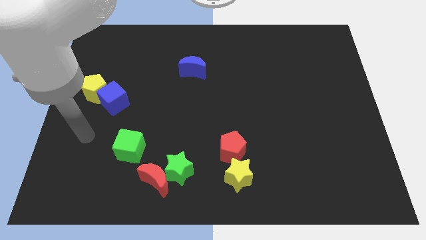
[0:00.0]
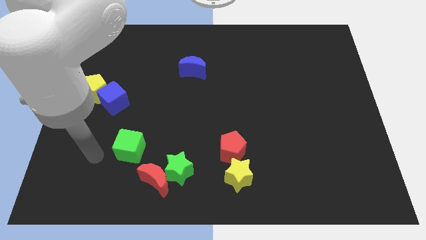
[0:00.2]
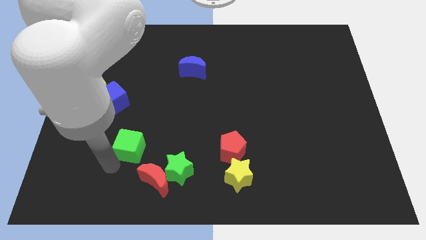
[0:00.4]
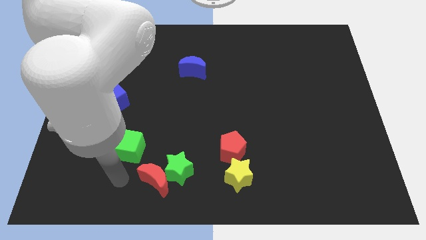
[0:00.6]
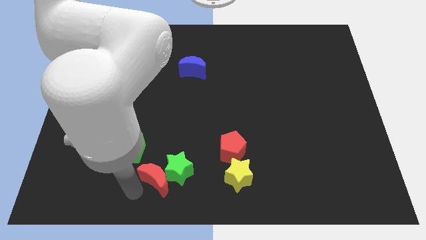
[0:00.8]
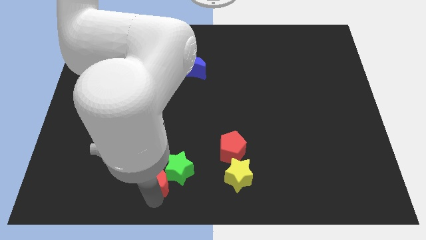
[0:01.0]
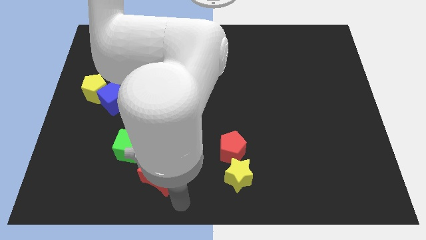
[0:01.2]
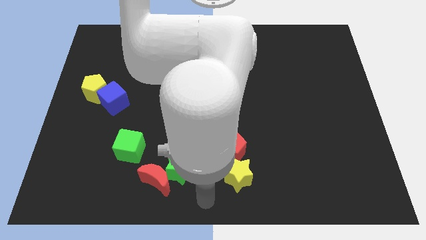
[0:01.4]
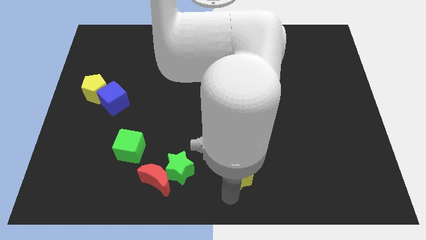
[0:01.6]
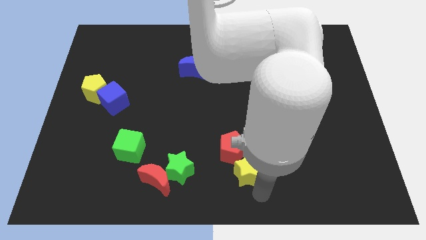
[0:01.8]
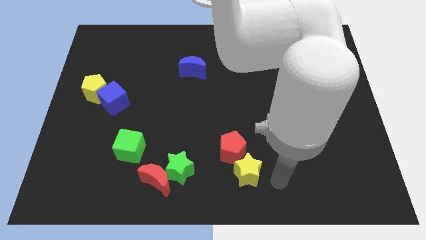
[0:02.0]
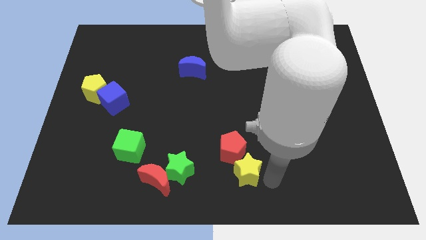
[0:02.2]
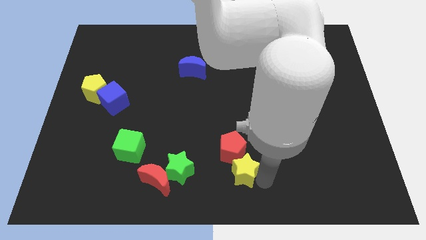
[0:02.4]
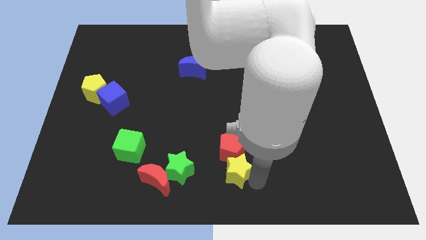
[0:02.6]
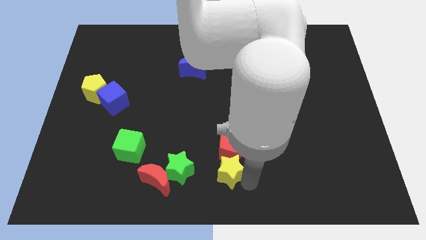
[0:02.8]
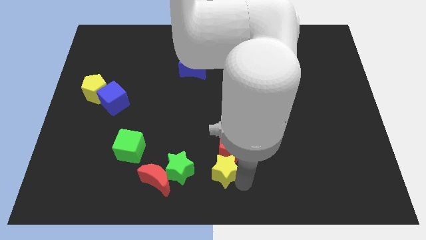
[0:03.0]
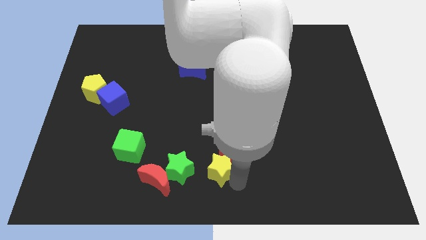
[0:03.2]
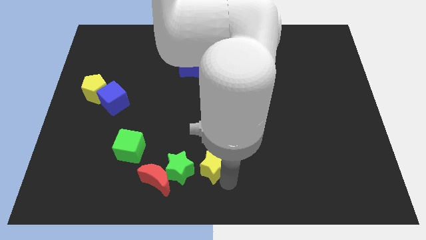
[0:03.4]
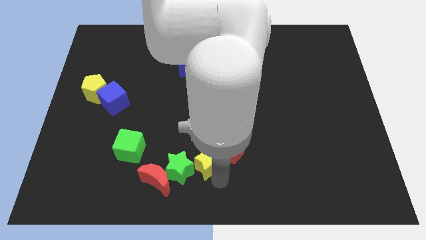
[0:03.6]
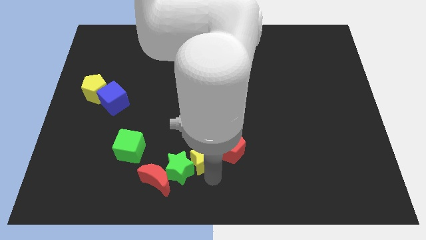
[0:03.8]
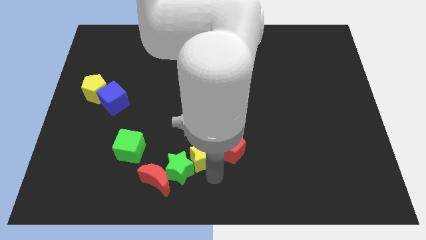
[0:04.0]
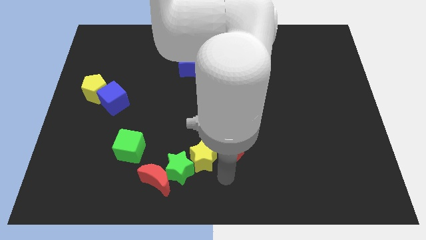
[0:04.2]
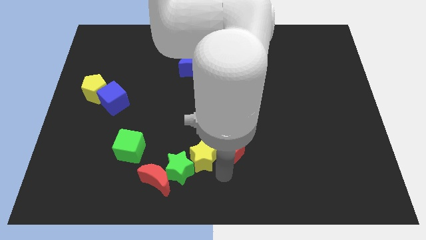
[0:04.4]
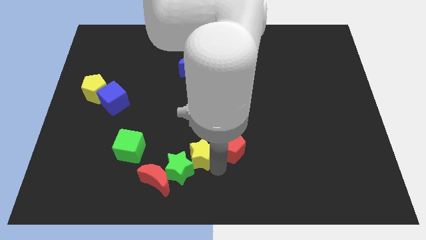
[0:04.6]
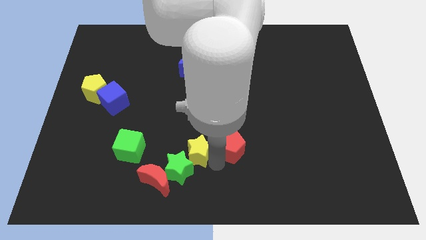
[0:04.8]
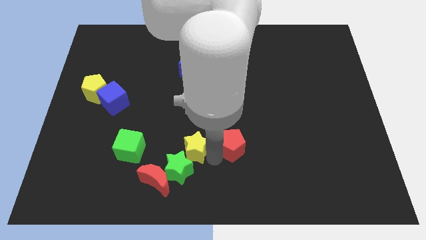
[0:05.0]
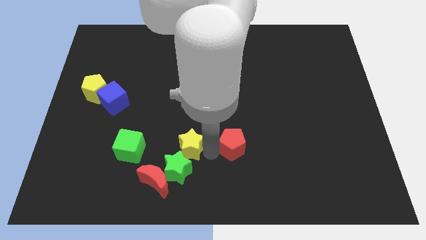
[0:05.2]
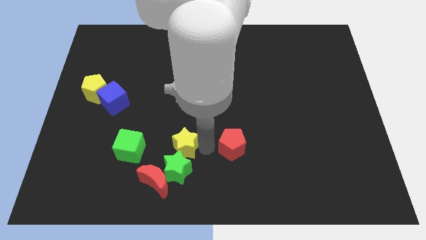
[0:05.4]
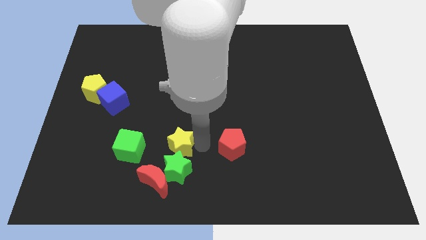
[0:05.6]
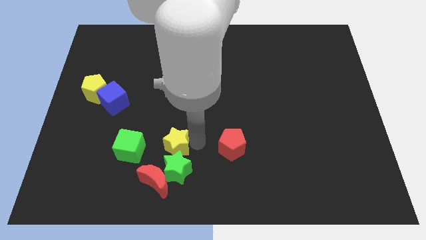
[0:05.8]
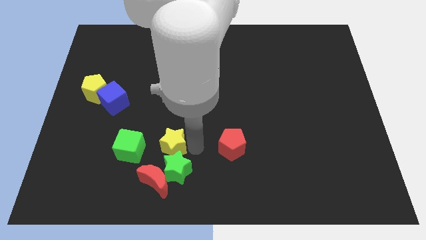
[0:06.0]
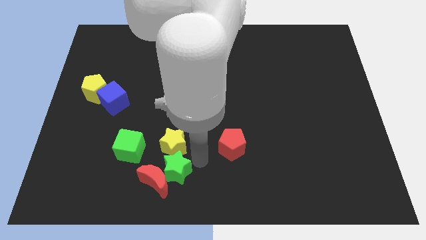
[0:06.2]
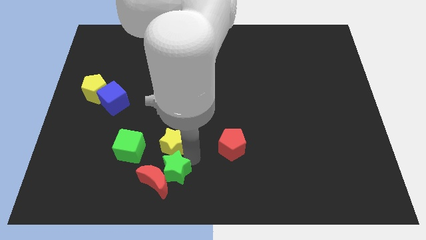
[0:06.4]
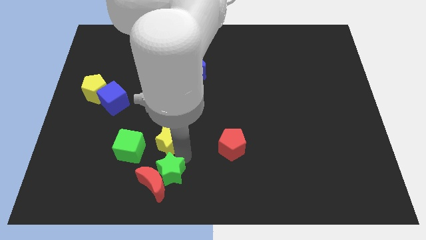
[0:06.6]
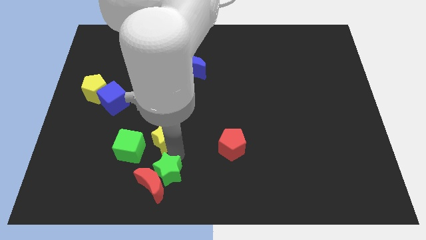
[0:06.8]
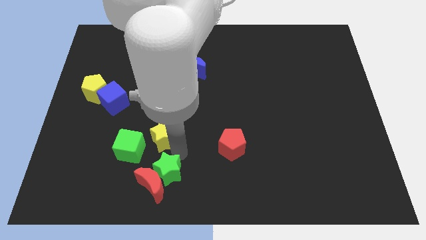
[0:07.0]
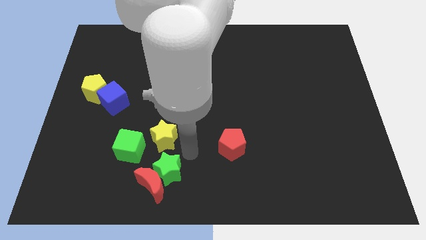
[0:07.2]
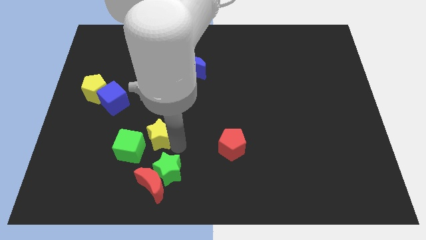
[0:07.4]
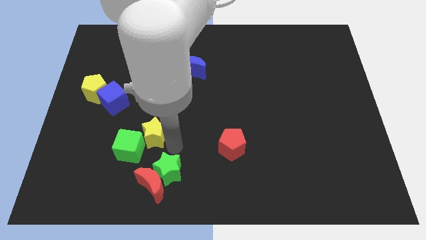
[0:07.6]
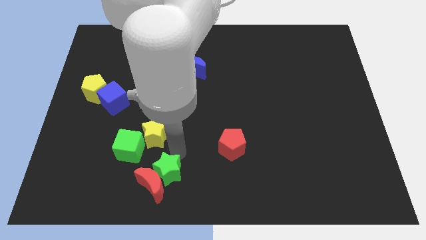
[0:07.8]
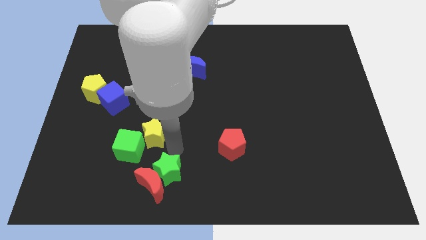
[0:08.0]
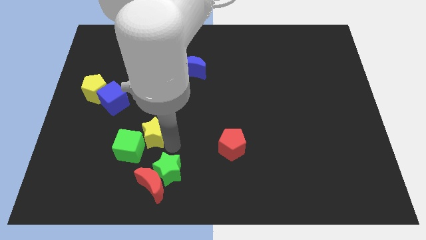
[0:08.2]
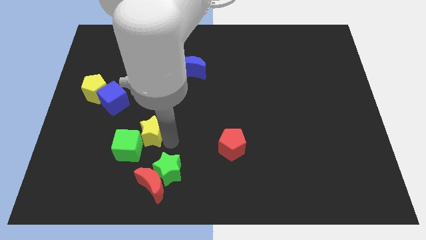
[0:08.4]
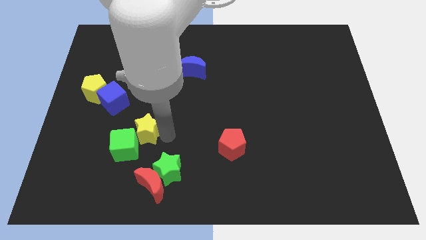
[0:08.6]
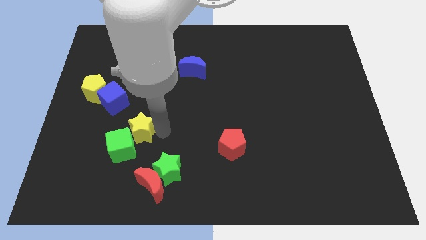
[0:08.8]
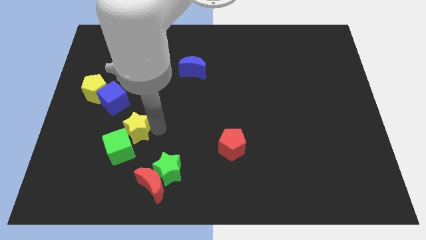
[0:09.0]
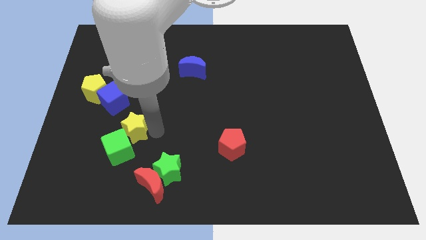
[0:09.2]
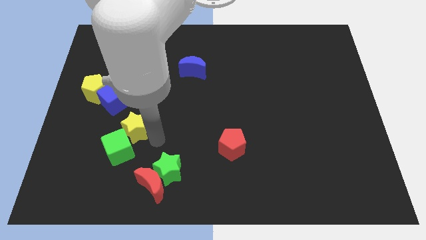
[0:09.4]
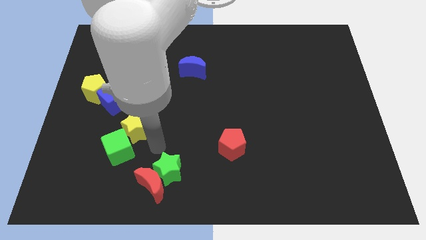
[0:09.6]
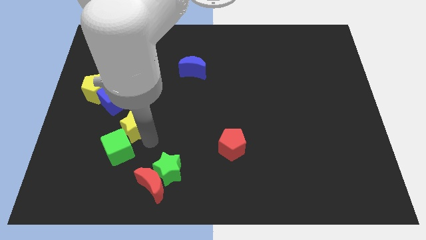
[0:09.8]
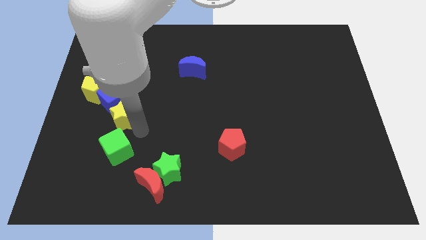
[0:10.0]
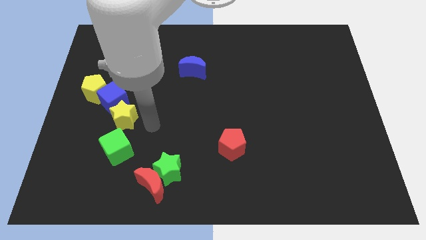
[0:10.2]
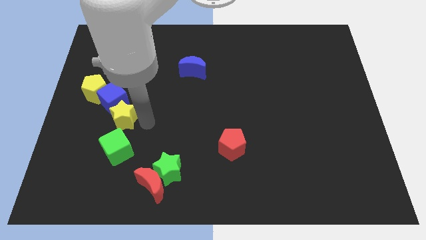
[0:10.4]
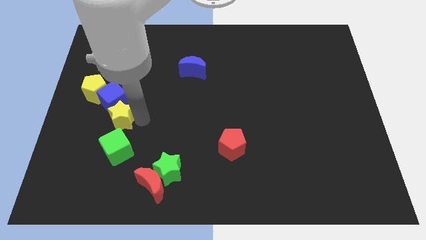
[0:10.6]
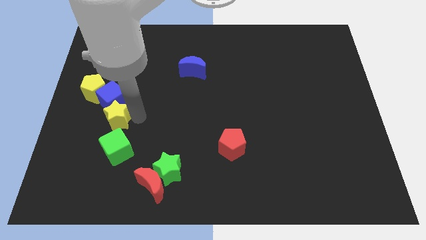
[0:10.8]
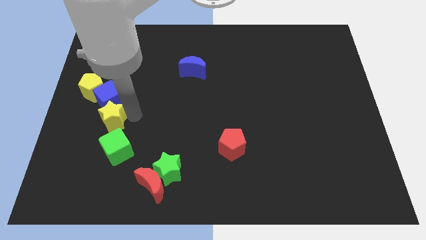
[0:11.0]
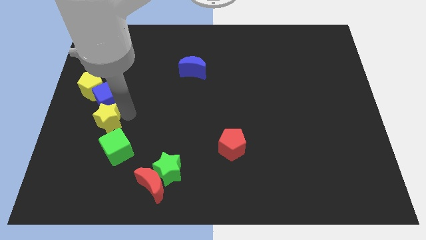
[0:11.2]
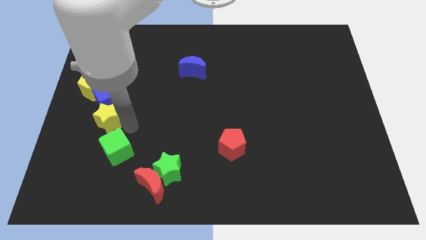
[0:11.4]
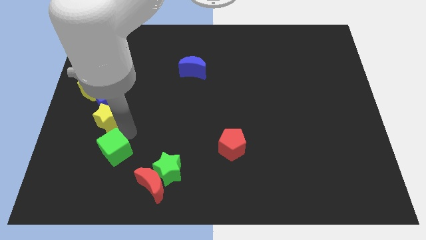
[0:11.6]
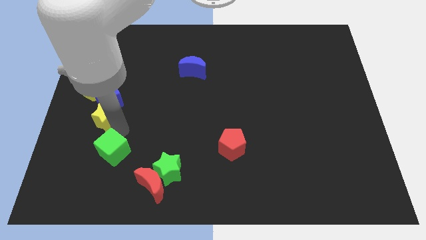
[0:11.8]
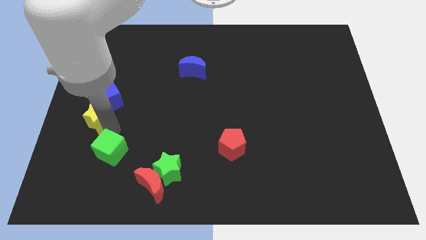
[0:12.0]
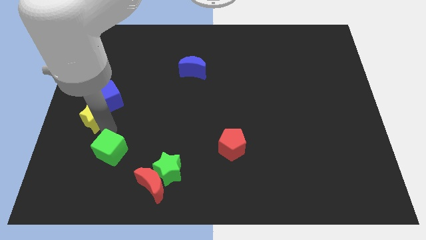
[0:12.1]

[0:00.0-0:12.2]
move the yellow star to the left side of the board

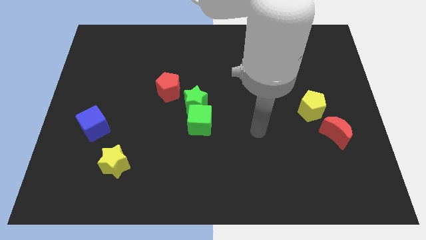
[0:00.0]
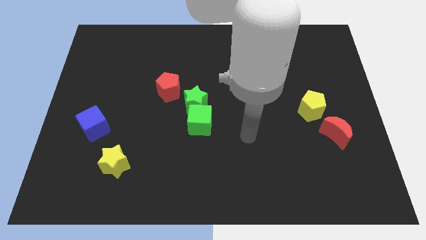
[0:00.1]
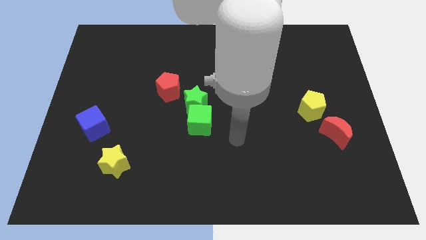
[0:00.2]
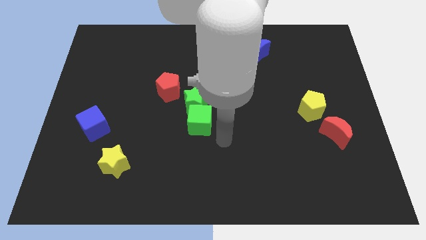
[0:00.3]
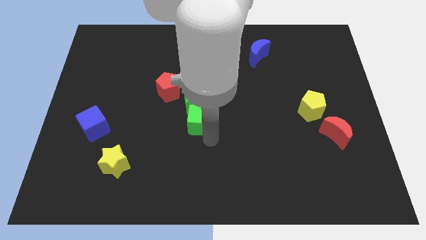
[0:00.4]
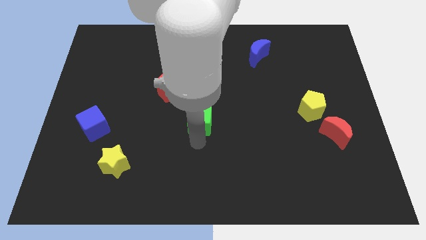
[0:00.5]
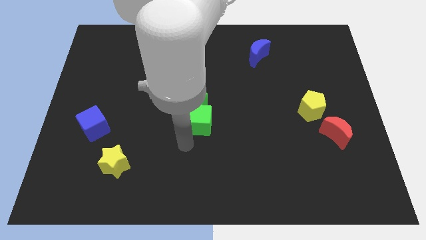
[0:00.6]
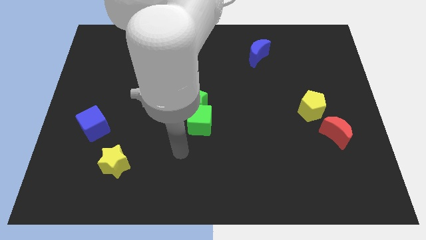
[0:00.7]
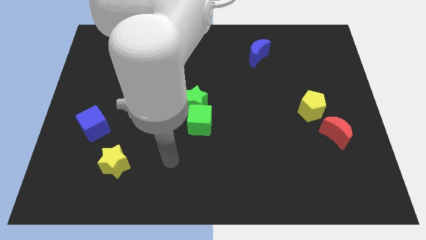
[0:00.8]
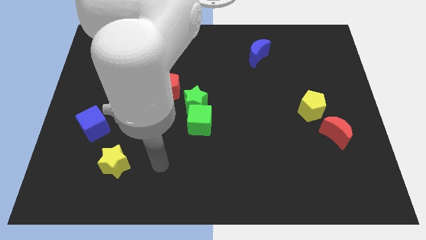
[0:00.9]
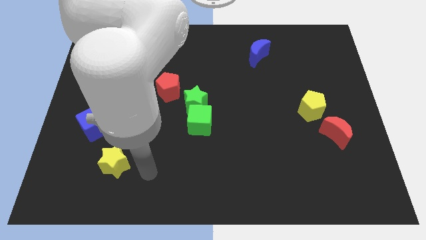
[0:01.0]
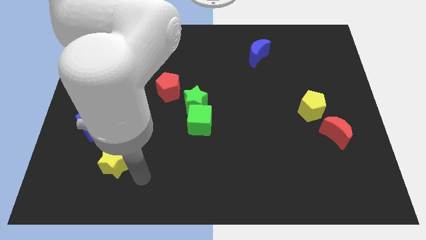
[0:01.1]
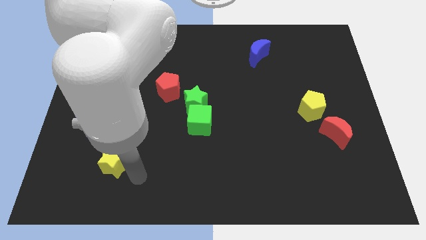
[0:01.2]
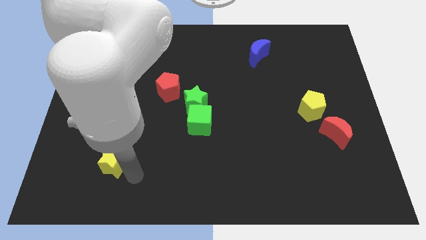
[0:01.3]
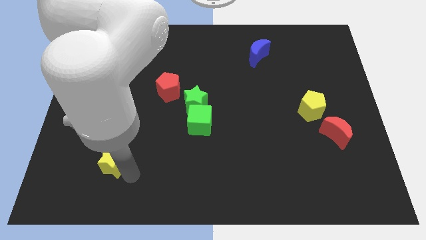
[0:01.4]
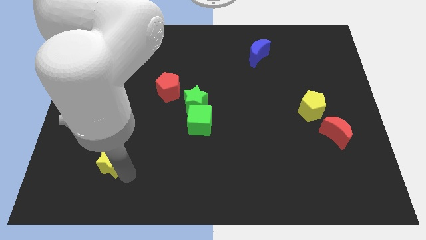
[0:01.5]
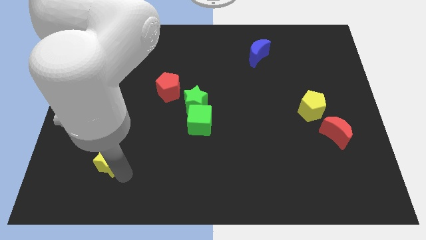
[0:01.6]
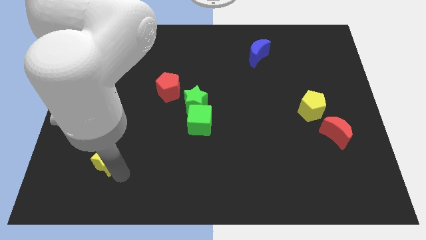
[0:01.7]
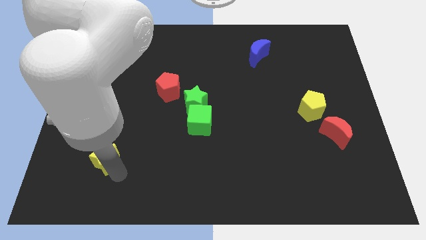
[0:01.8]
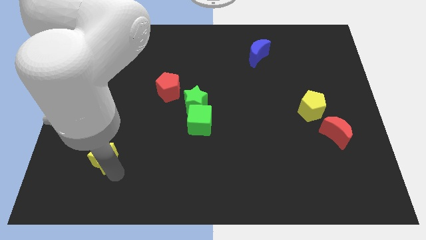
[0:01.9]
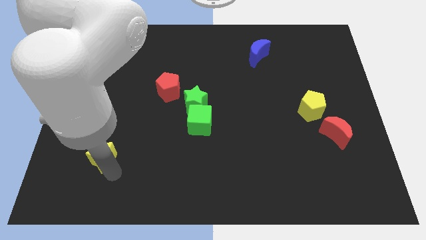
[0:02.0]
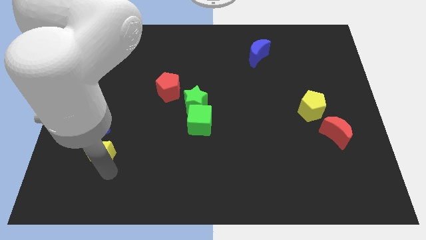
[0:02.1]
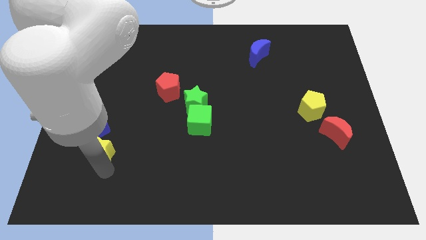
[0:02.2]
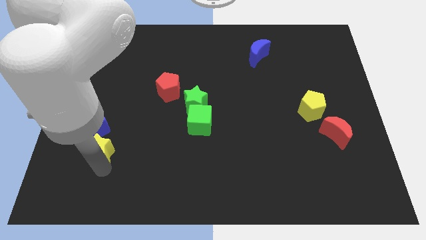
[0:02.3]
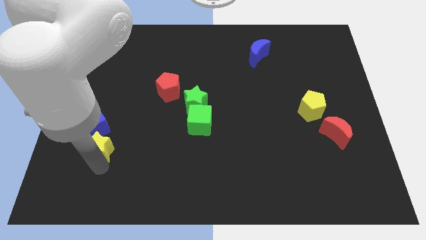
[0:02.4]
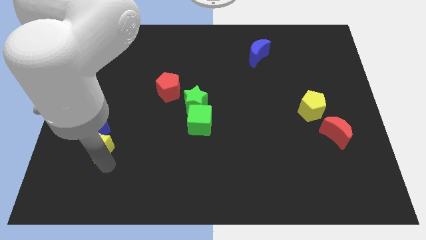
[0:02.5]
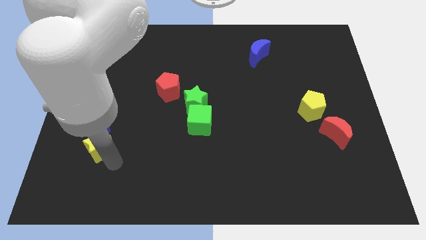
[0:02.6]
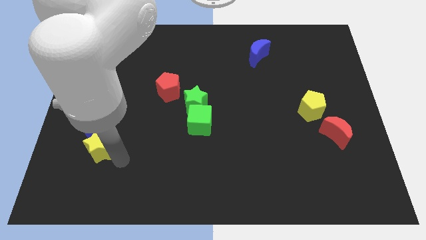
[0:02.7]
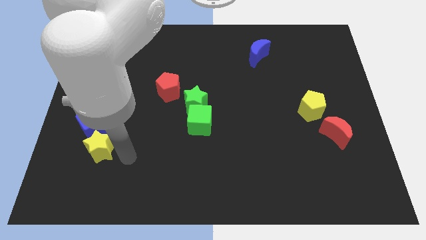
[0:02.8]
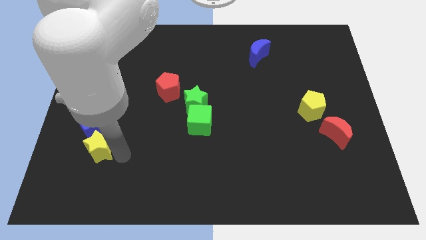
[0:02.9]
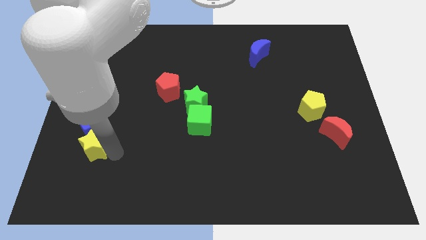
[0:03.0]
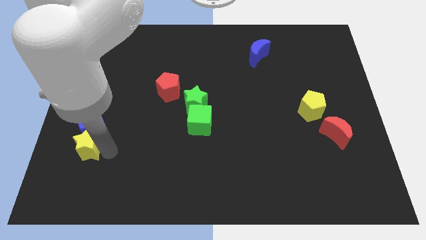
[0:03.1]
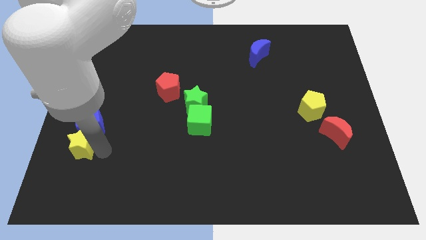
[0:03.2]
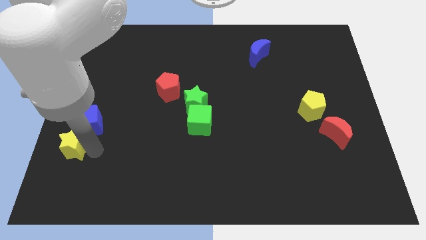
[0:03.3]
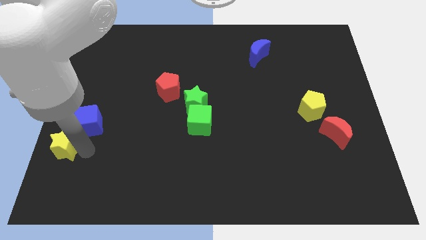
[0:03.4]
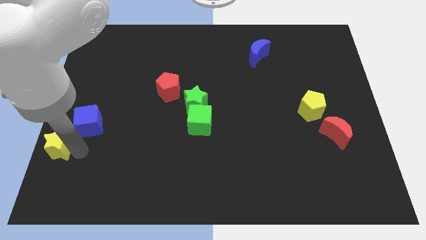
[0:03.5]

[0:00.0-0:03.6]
move the yellow star to the left side
